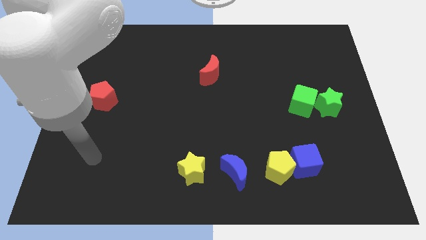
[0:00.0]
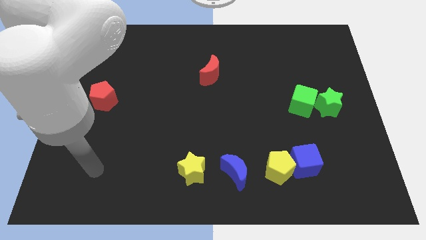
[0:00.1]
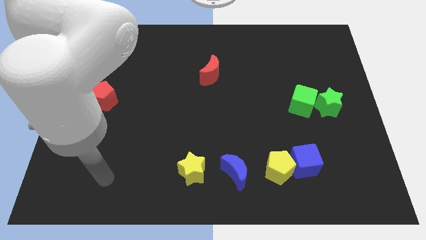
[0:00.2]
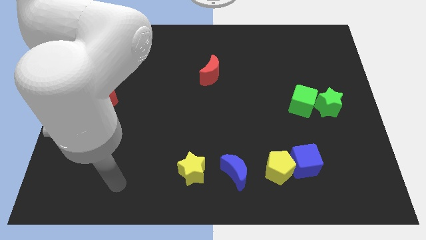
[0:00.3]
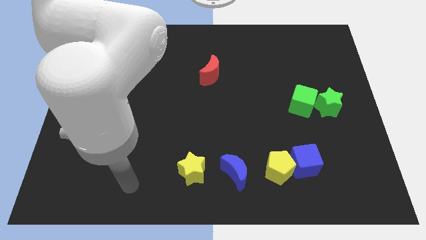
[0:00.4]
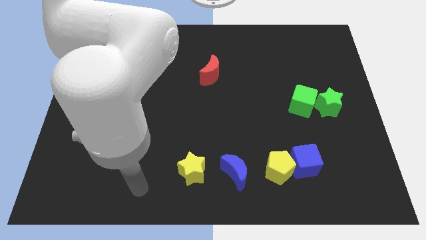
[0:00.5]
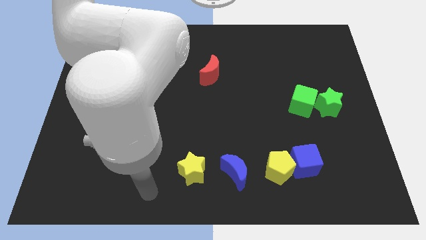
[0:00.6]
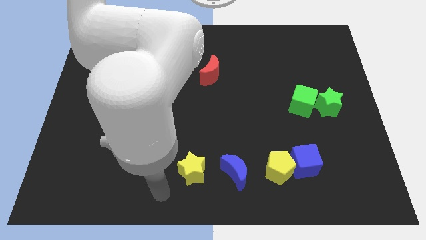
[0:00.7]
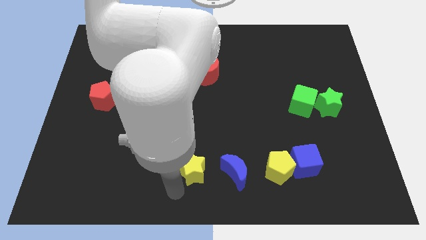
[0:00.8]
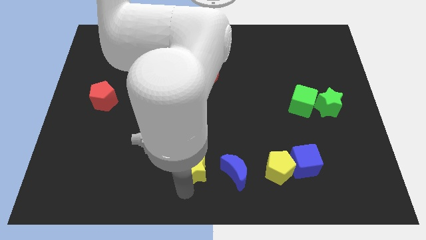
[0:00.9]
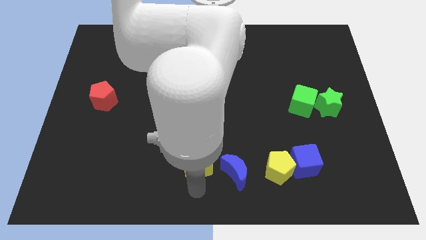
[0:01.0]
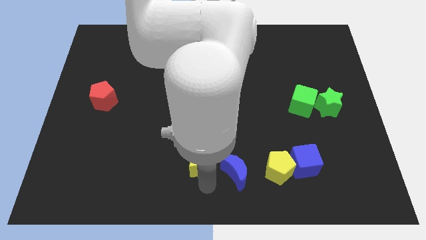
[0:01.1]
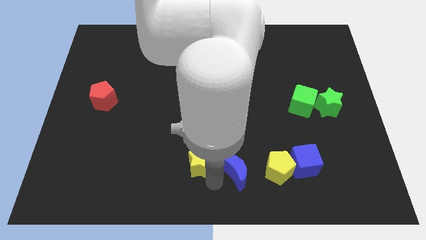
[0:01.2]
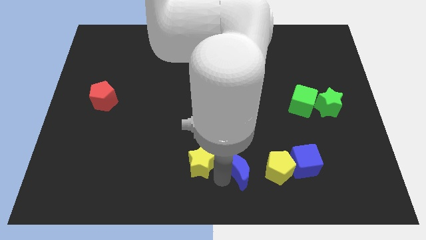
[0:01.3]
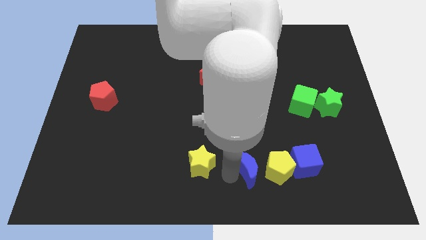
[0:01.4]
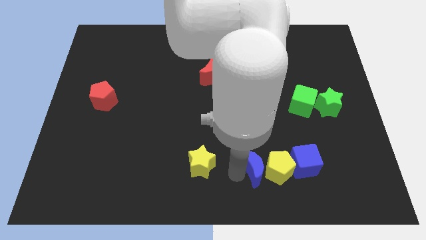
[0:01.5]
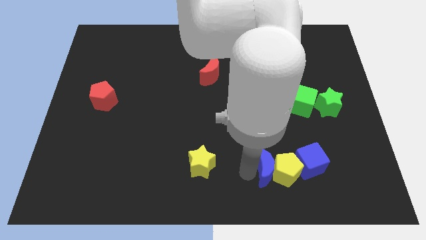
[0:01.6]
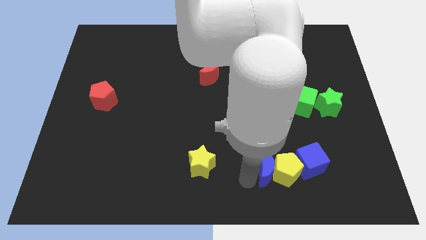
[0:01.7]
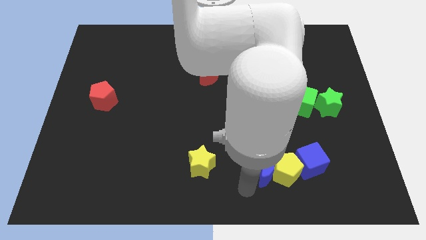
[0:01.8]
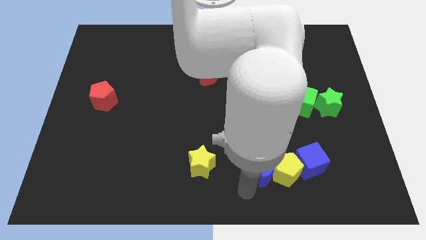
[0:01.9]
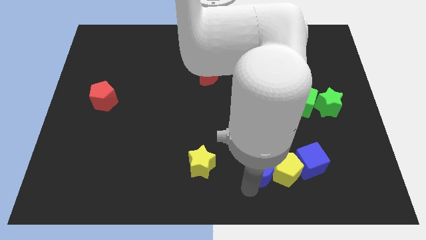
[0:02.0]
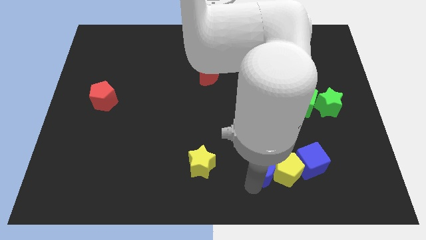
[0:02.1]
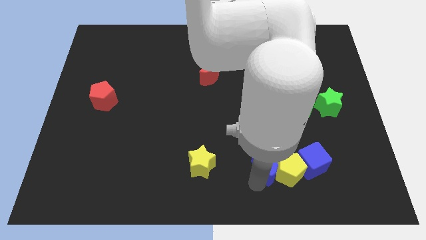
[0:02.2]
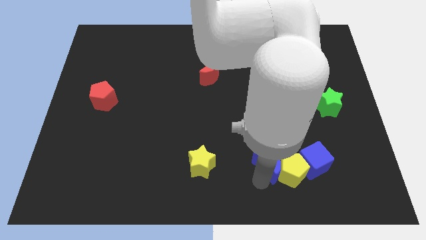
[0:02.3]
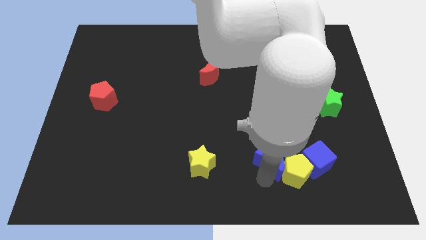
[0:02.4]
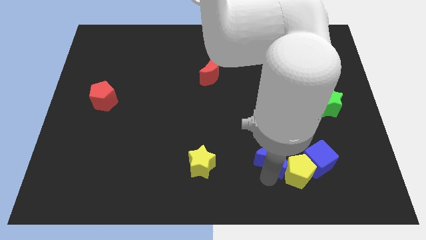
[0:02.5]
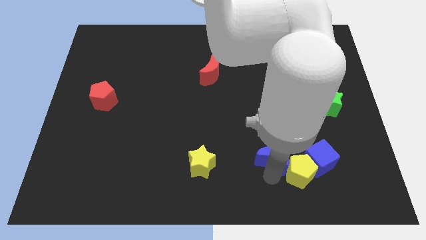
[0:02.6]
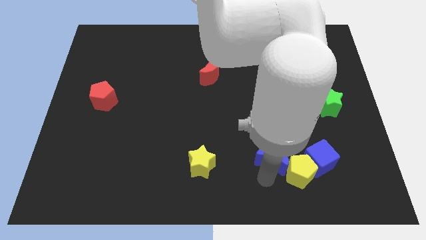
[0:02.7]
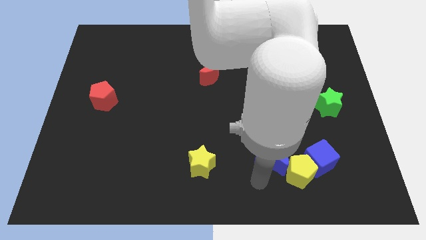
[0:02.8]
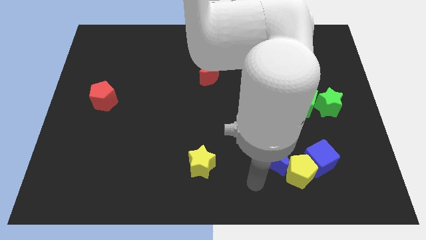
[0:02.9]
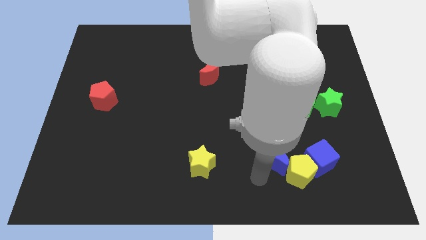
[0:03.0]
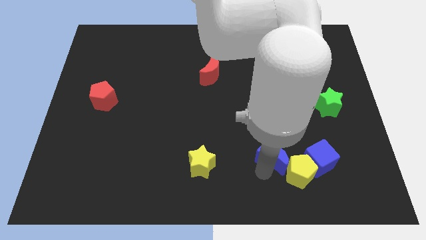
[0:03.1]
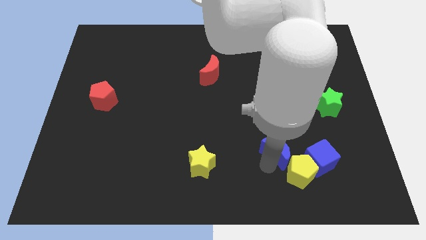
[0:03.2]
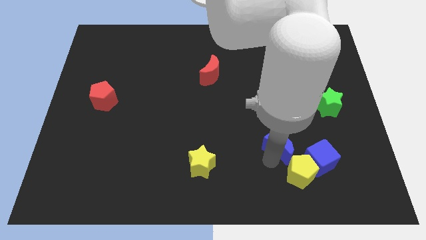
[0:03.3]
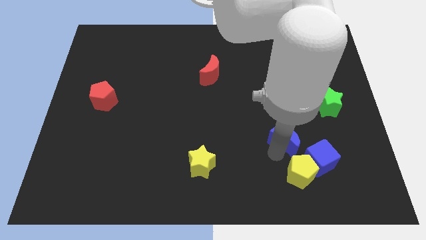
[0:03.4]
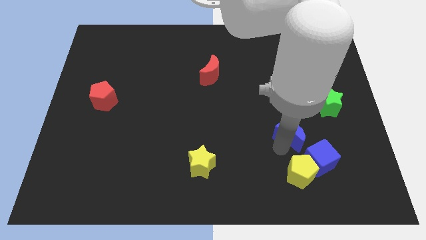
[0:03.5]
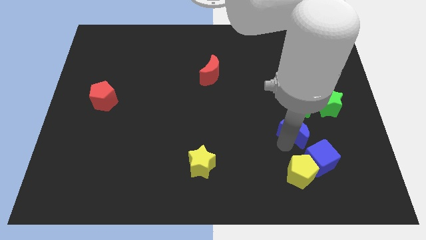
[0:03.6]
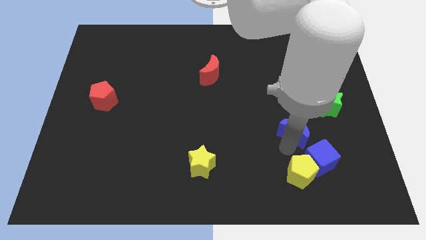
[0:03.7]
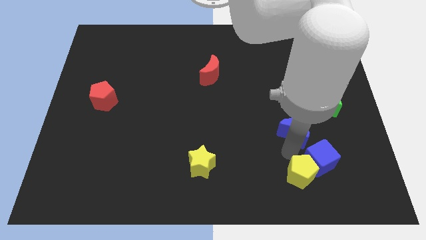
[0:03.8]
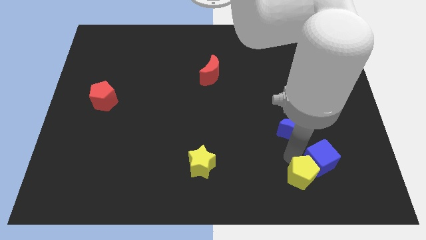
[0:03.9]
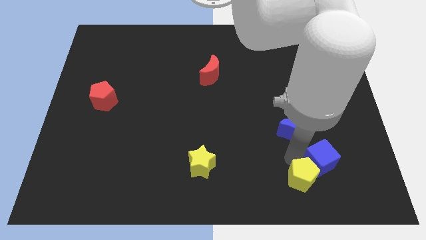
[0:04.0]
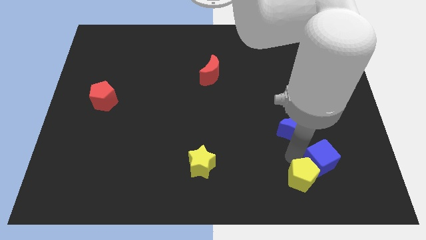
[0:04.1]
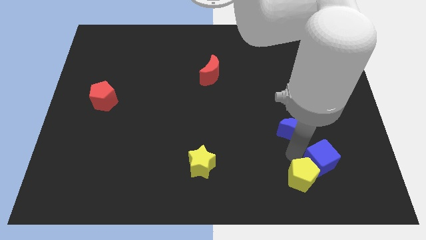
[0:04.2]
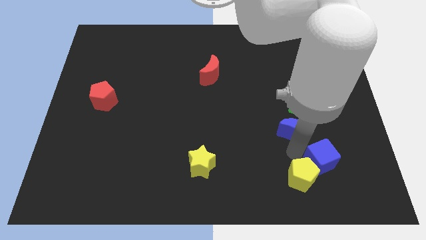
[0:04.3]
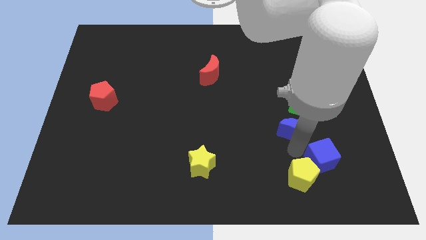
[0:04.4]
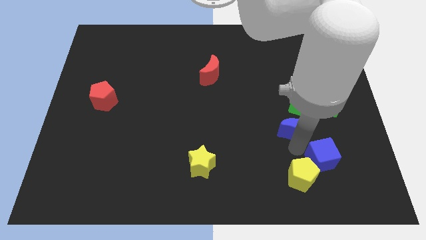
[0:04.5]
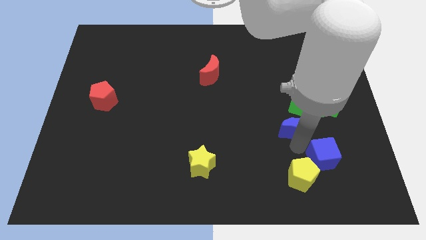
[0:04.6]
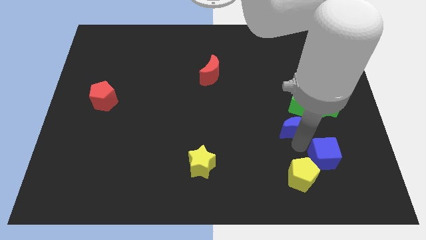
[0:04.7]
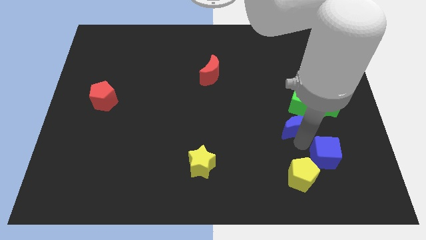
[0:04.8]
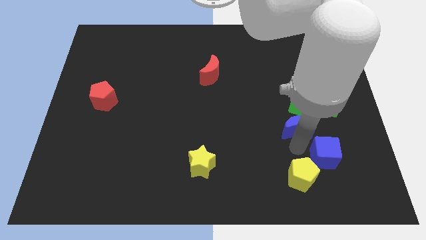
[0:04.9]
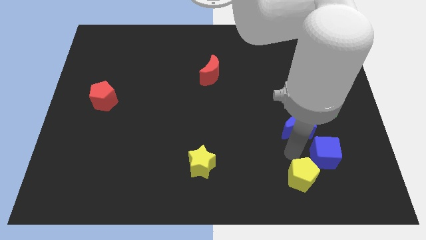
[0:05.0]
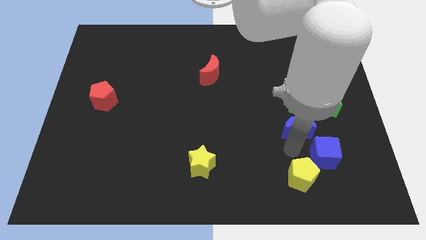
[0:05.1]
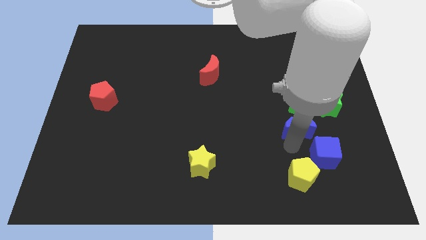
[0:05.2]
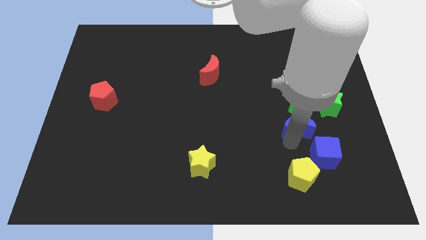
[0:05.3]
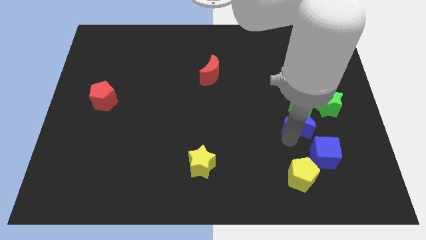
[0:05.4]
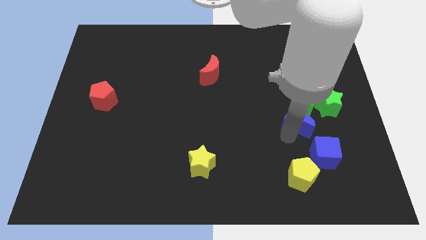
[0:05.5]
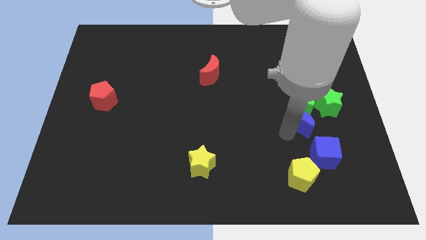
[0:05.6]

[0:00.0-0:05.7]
put the blue moon close to the green cube

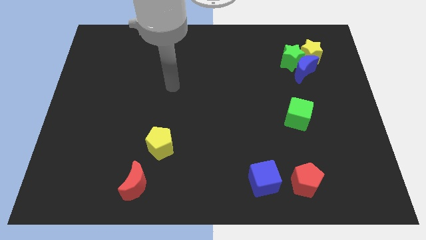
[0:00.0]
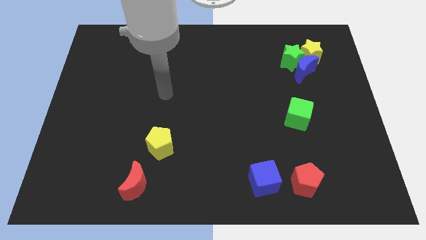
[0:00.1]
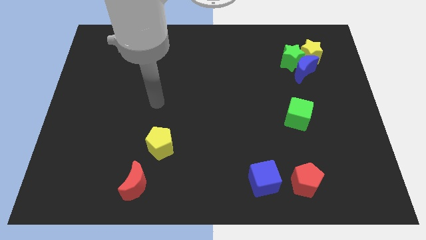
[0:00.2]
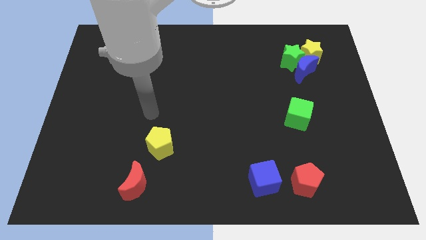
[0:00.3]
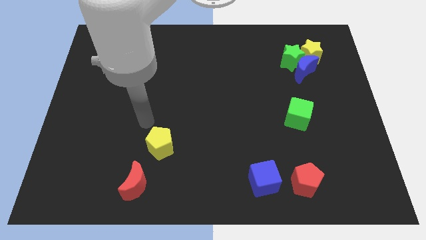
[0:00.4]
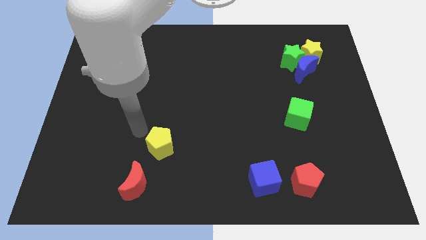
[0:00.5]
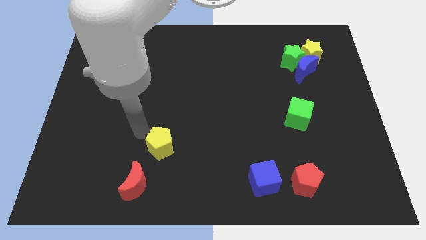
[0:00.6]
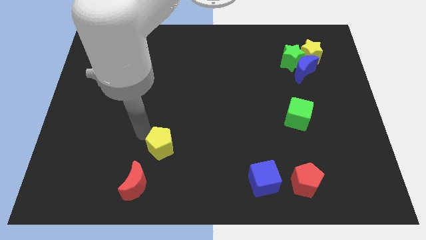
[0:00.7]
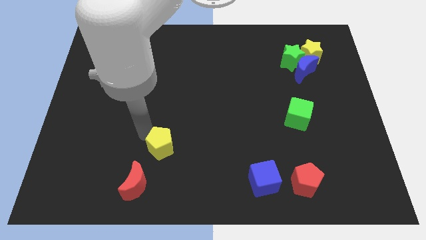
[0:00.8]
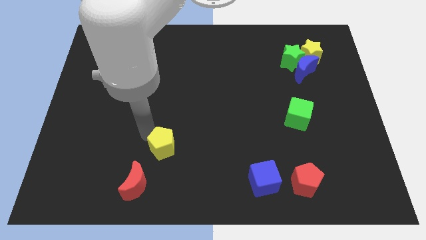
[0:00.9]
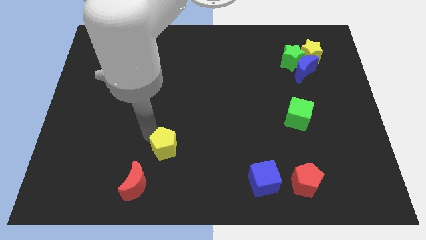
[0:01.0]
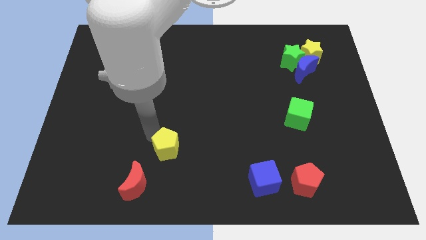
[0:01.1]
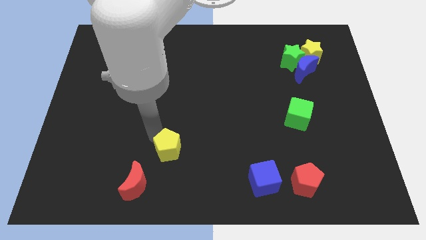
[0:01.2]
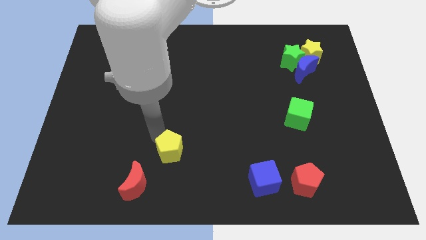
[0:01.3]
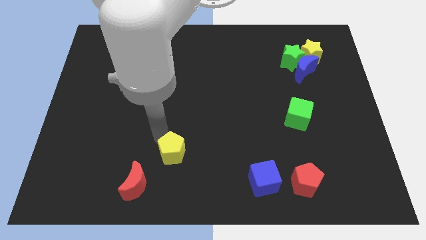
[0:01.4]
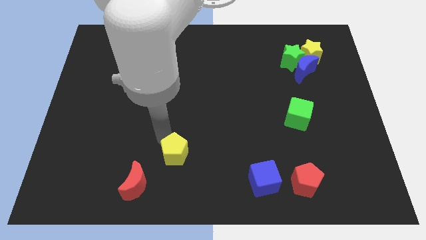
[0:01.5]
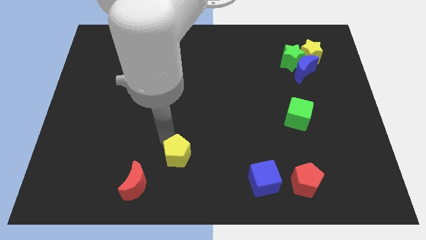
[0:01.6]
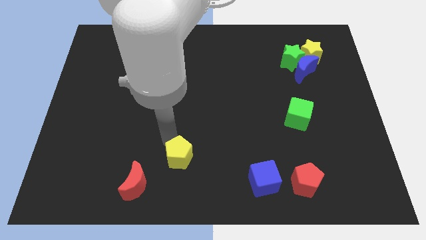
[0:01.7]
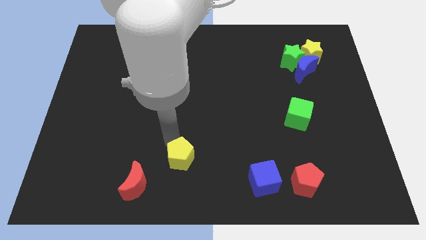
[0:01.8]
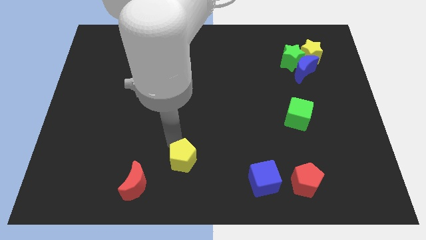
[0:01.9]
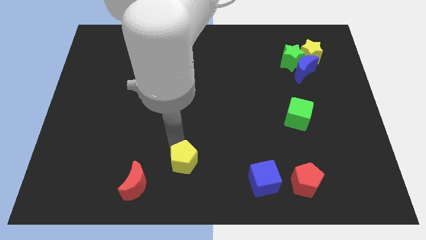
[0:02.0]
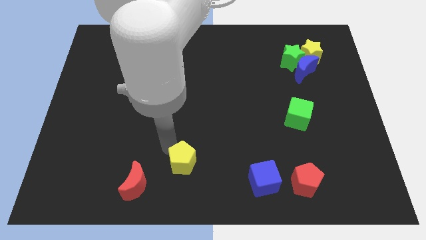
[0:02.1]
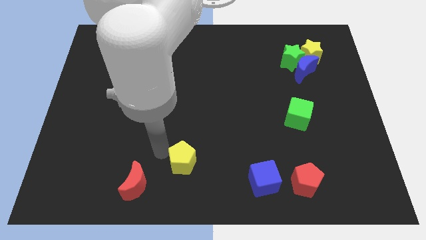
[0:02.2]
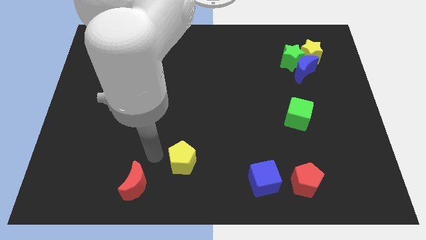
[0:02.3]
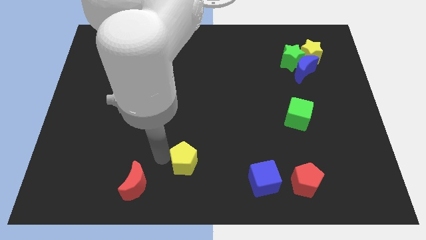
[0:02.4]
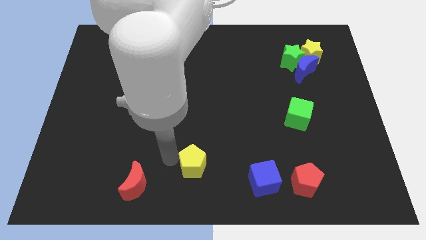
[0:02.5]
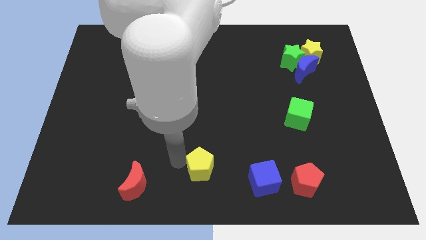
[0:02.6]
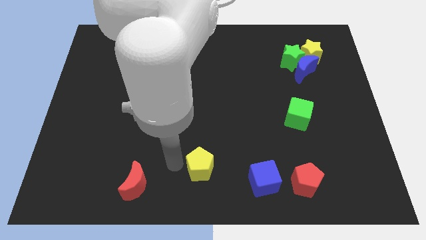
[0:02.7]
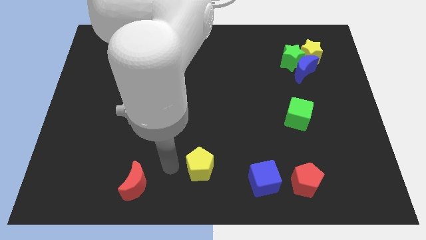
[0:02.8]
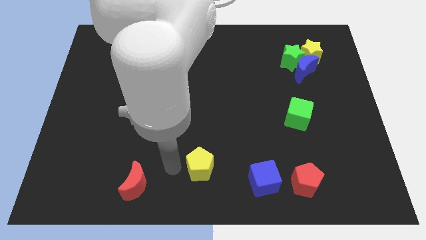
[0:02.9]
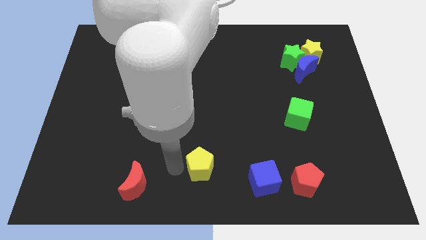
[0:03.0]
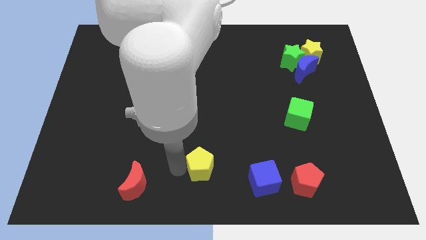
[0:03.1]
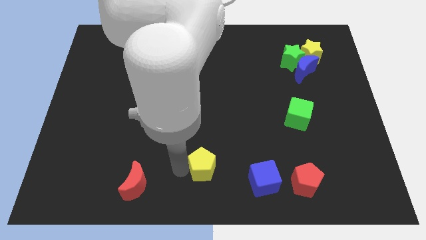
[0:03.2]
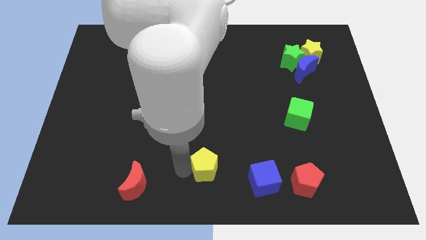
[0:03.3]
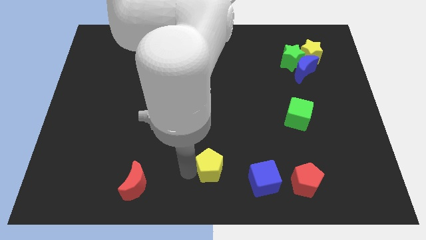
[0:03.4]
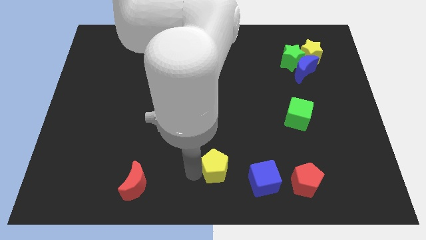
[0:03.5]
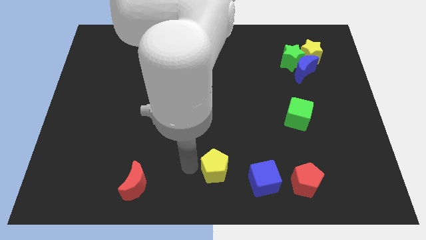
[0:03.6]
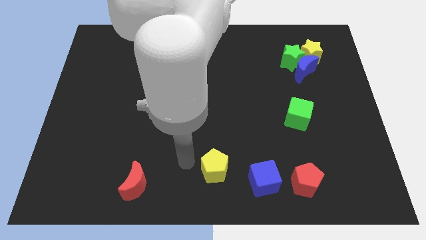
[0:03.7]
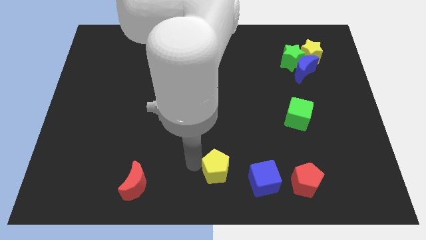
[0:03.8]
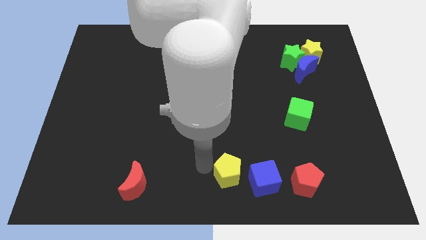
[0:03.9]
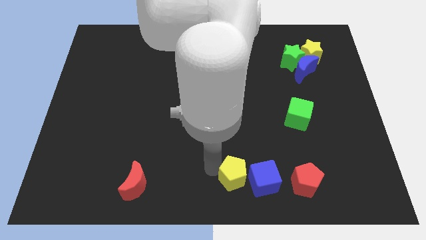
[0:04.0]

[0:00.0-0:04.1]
slide the yellow pentagon to the blue cube
